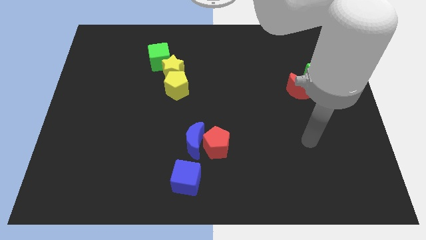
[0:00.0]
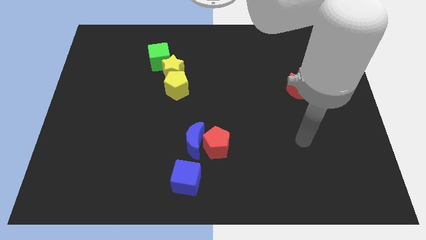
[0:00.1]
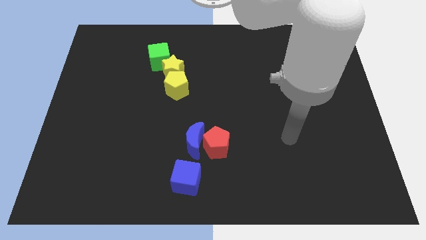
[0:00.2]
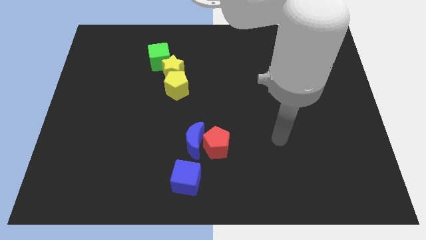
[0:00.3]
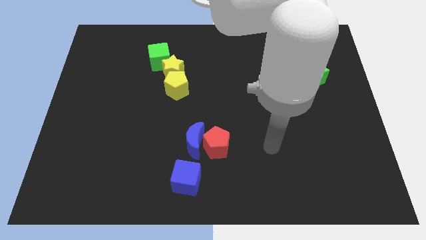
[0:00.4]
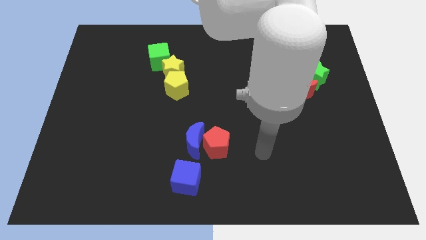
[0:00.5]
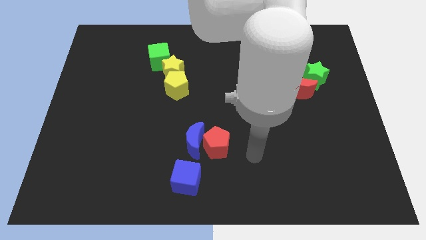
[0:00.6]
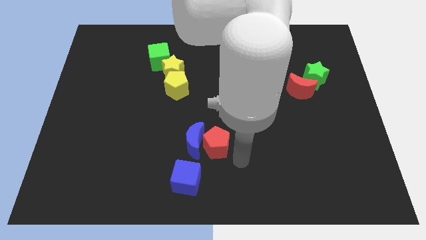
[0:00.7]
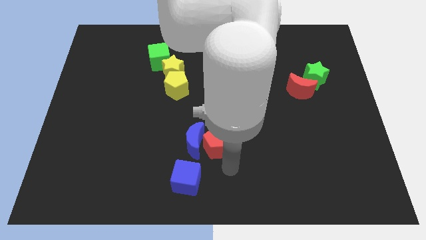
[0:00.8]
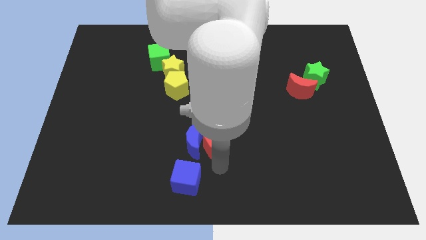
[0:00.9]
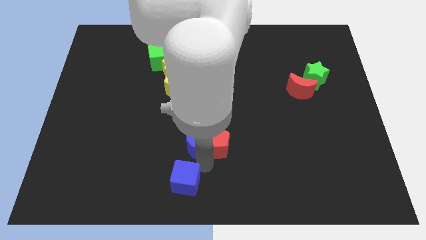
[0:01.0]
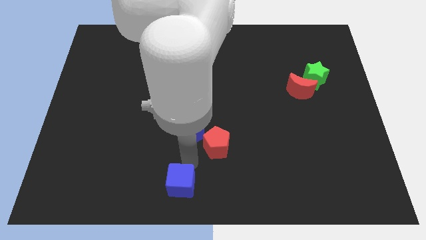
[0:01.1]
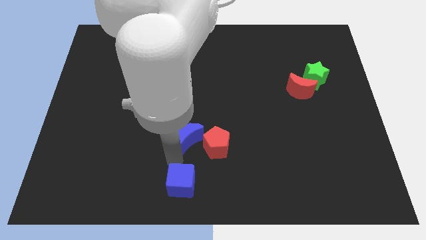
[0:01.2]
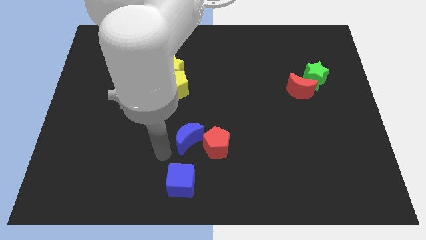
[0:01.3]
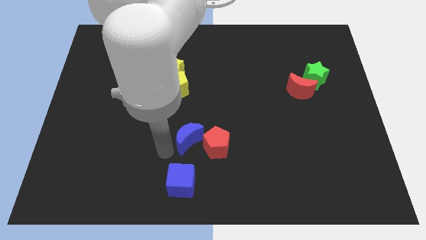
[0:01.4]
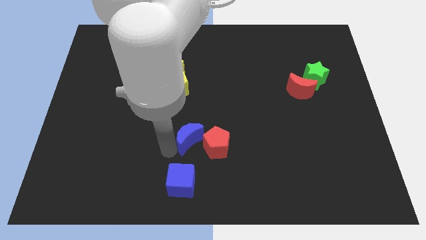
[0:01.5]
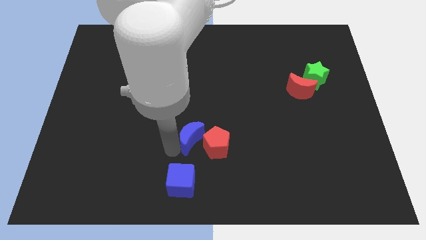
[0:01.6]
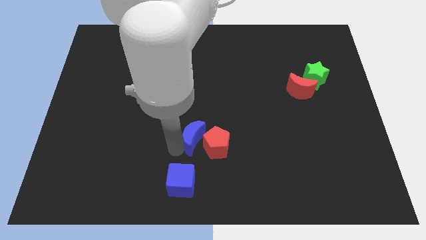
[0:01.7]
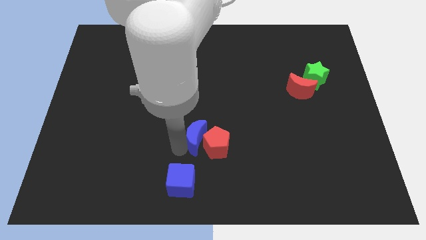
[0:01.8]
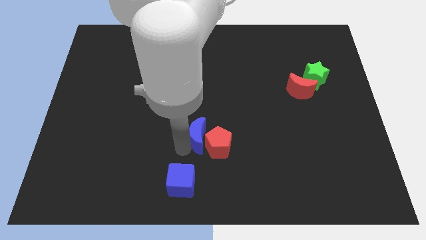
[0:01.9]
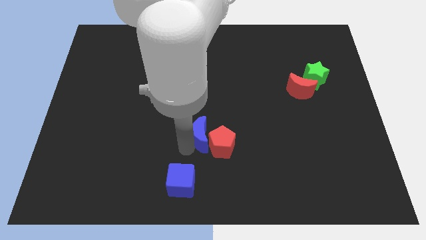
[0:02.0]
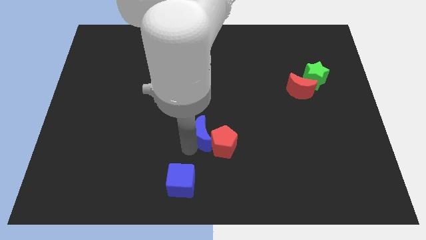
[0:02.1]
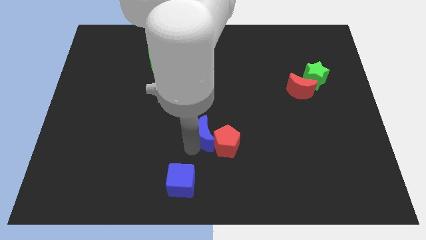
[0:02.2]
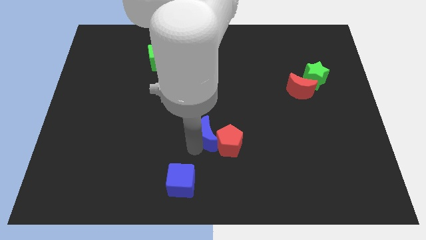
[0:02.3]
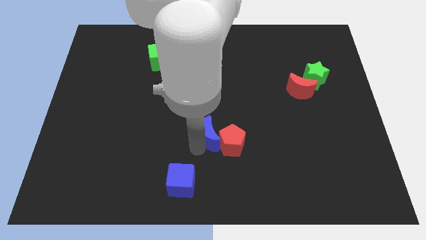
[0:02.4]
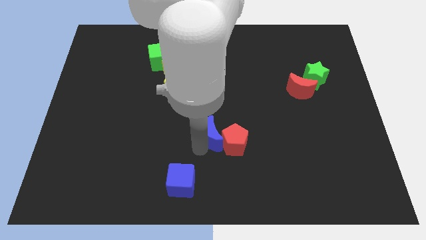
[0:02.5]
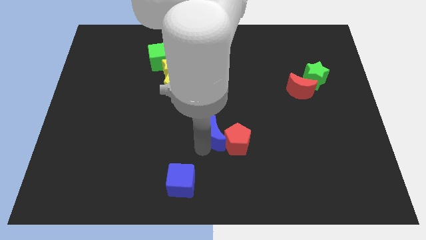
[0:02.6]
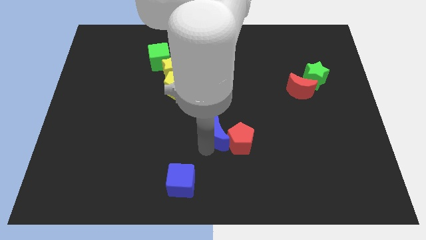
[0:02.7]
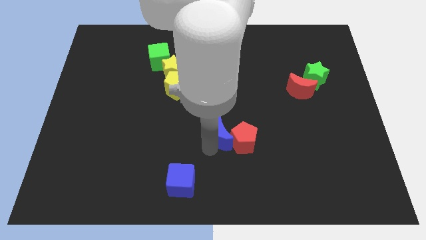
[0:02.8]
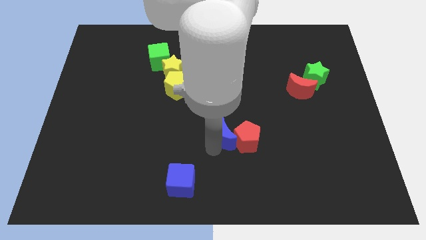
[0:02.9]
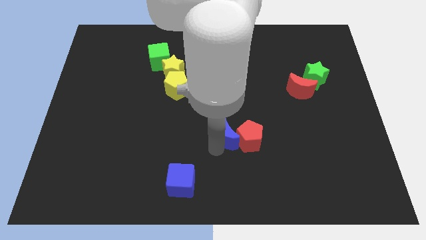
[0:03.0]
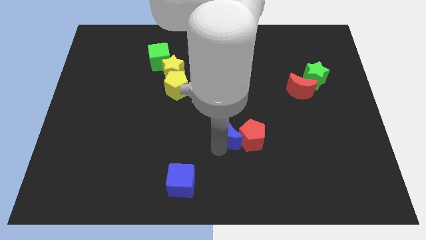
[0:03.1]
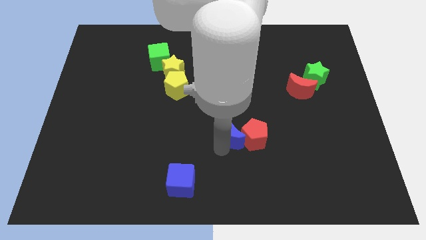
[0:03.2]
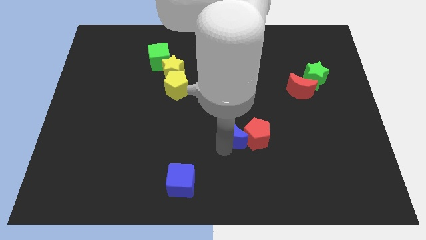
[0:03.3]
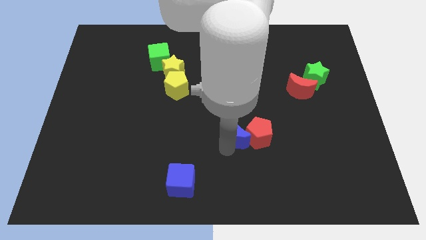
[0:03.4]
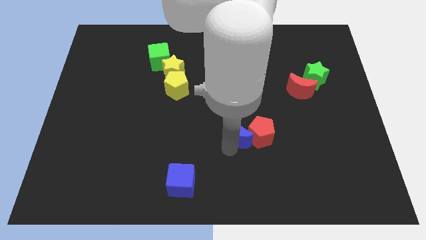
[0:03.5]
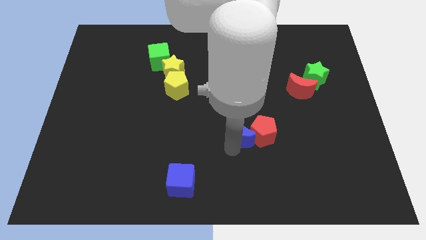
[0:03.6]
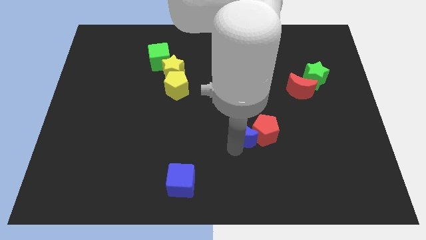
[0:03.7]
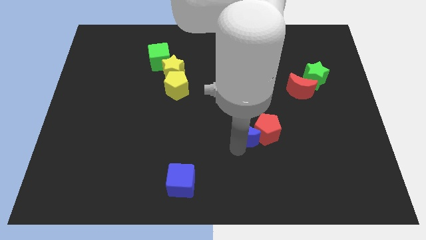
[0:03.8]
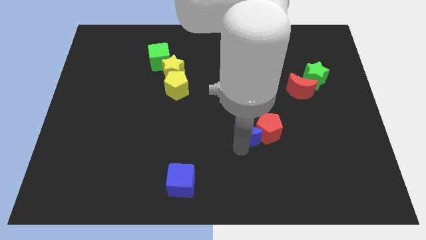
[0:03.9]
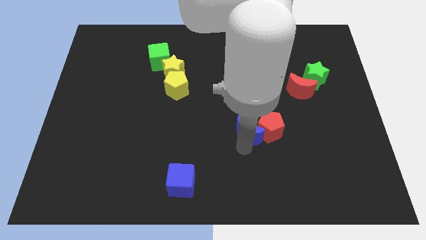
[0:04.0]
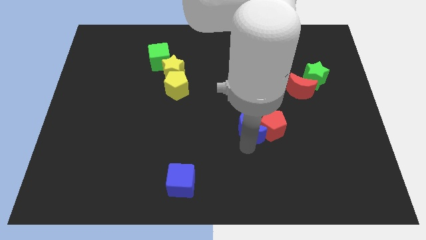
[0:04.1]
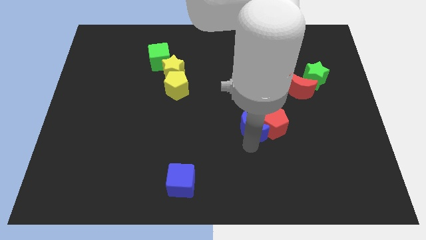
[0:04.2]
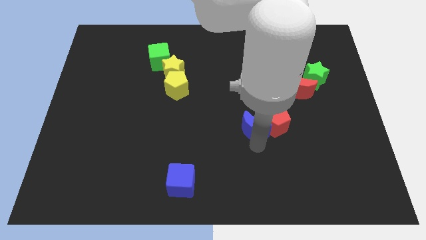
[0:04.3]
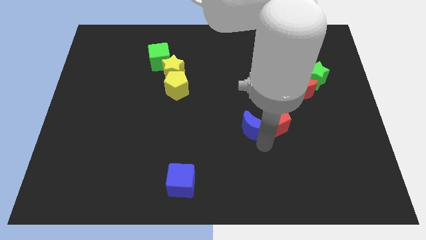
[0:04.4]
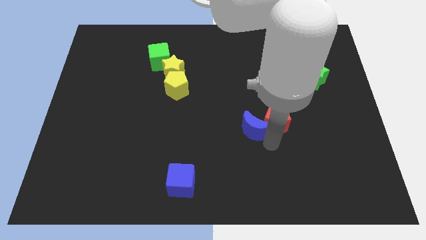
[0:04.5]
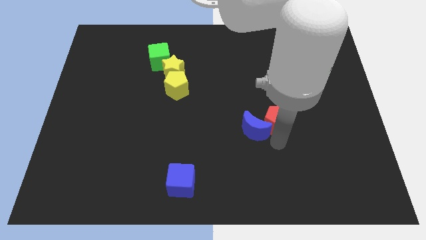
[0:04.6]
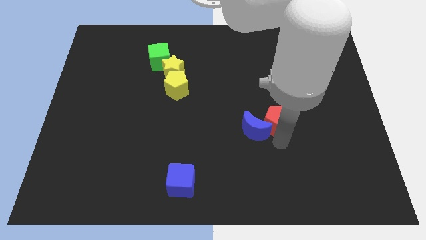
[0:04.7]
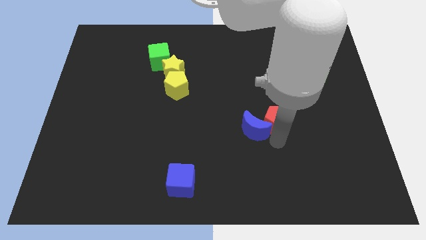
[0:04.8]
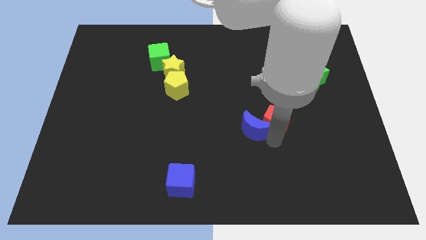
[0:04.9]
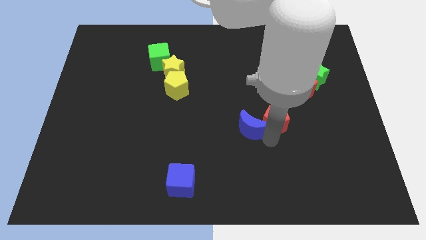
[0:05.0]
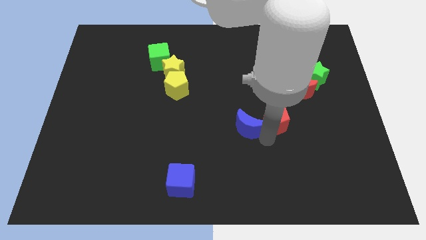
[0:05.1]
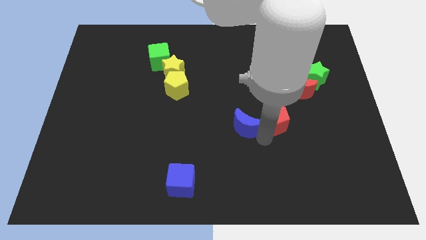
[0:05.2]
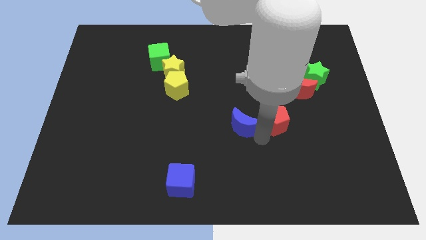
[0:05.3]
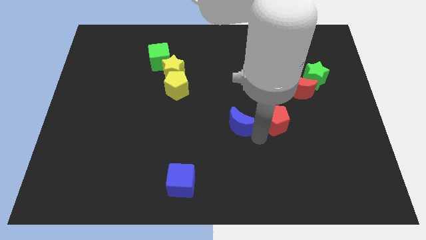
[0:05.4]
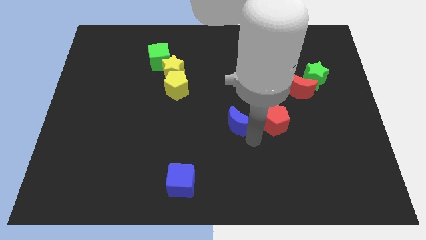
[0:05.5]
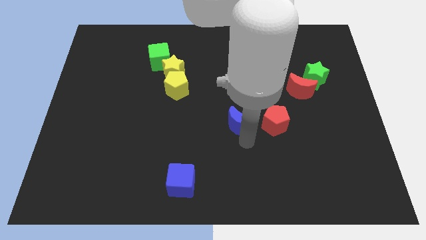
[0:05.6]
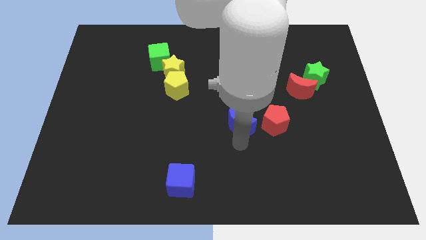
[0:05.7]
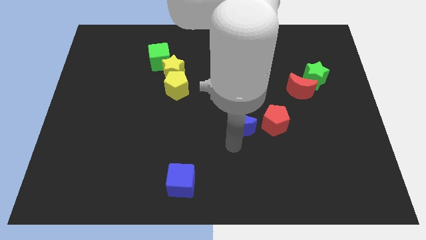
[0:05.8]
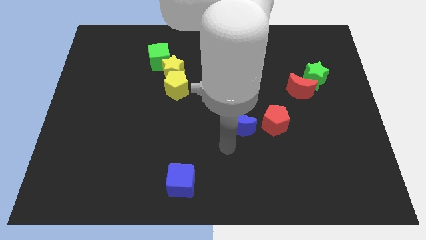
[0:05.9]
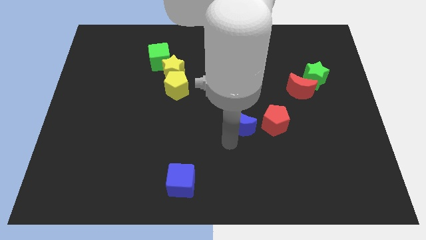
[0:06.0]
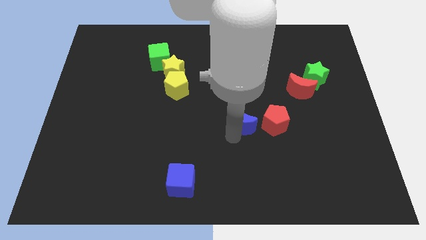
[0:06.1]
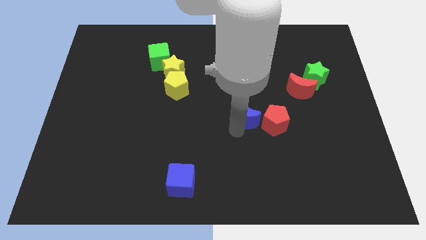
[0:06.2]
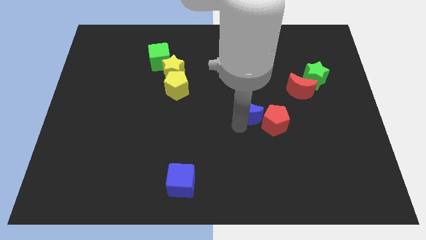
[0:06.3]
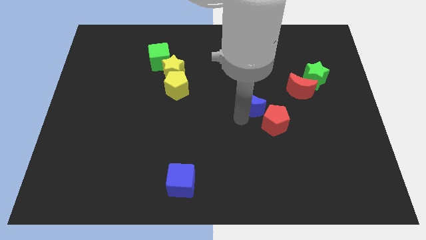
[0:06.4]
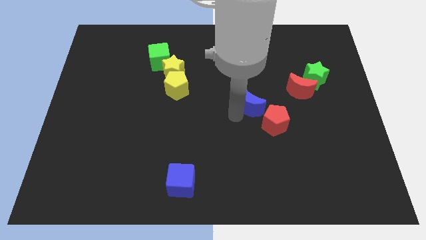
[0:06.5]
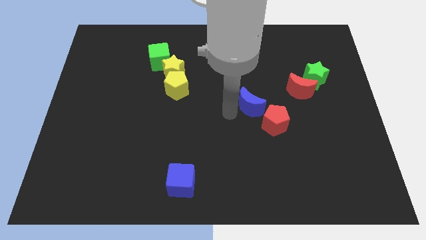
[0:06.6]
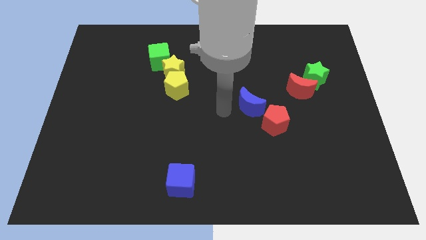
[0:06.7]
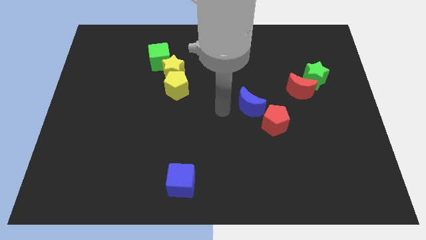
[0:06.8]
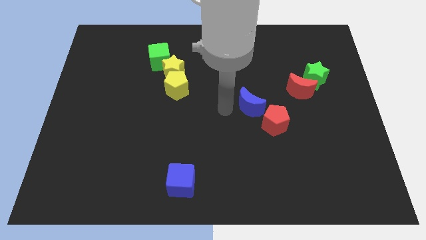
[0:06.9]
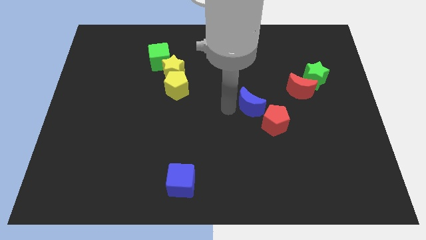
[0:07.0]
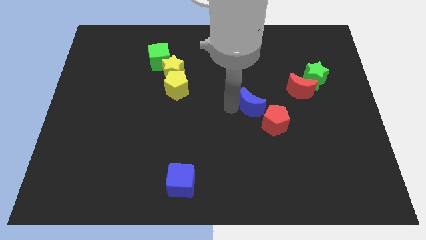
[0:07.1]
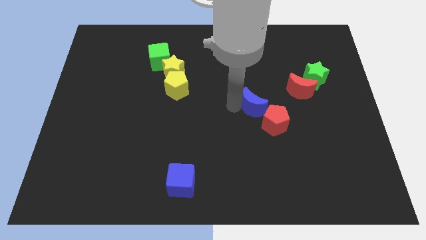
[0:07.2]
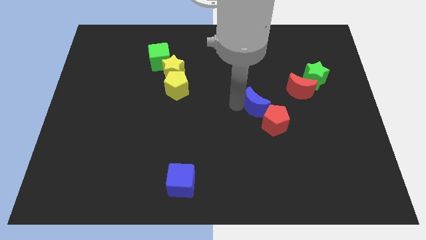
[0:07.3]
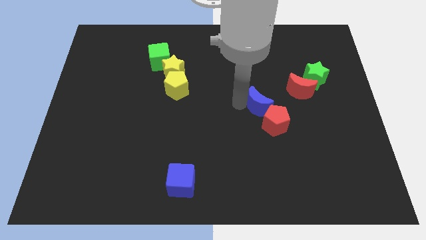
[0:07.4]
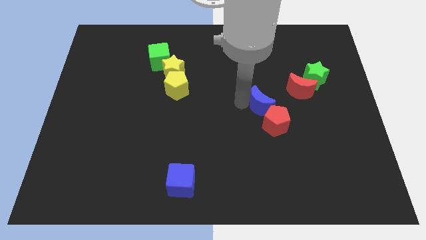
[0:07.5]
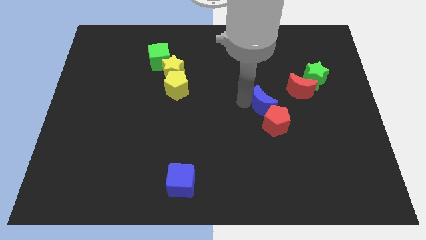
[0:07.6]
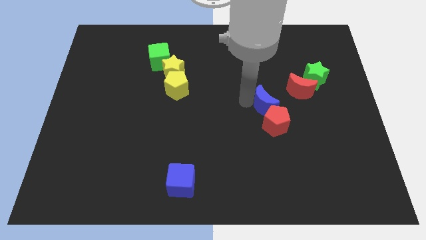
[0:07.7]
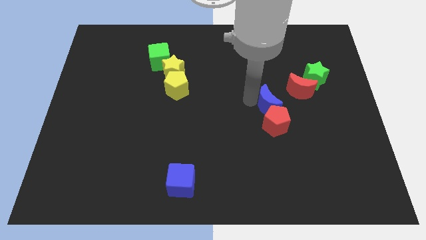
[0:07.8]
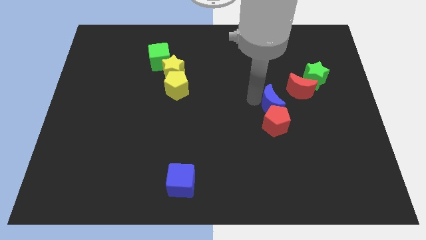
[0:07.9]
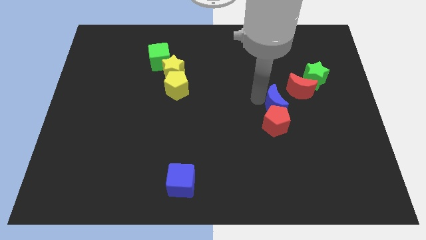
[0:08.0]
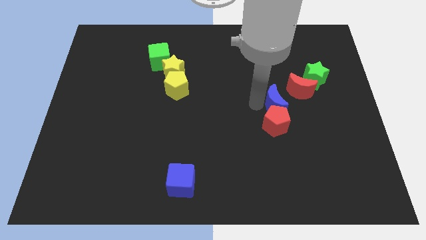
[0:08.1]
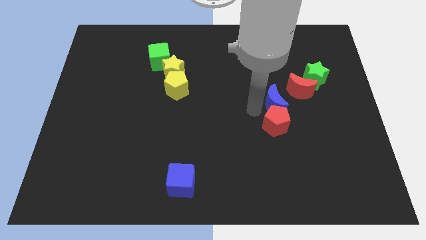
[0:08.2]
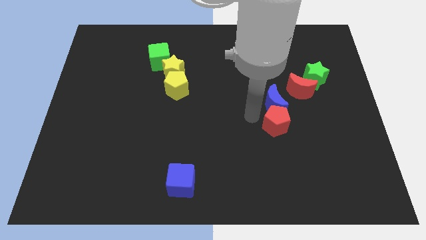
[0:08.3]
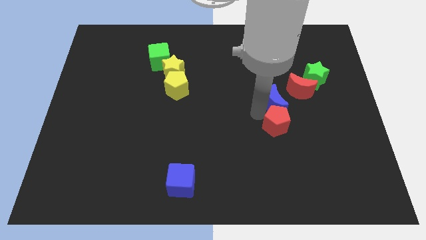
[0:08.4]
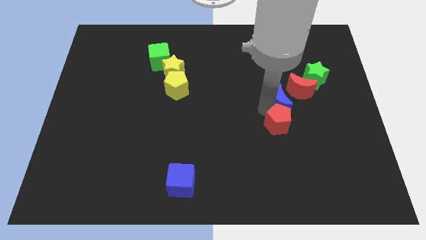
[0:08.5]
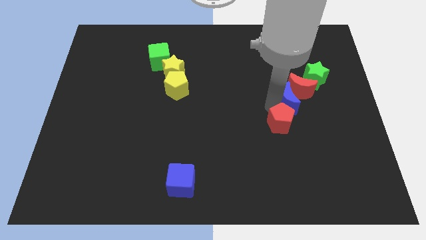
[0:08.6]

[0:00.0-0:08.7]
put the blue moon to the red moon
